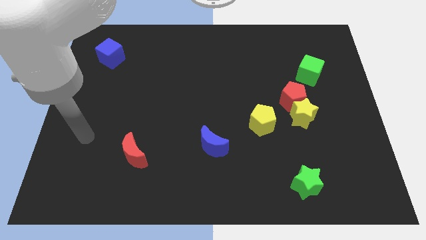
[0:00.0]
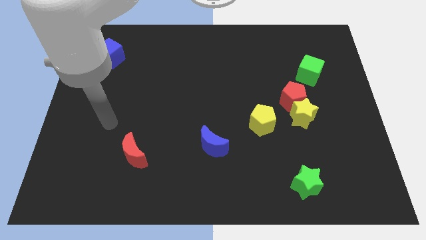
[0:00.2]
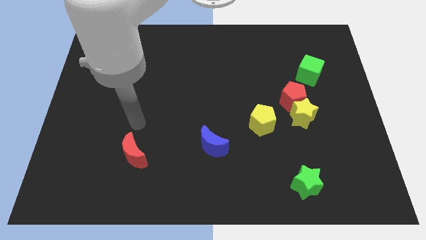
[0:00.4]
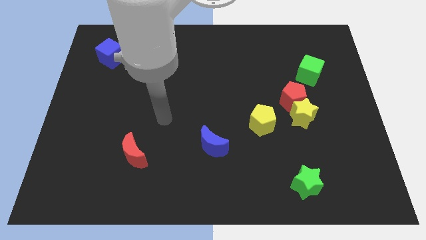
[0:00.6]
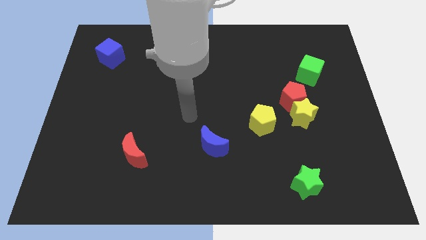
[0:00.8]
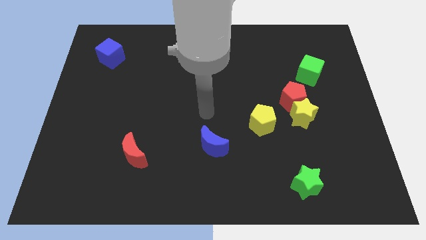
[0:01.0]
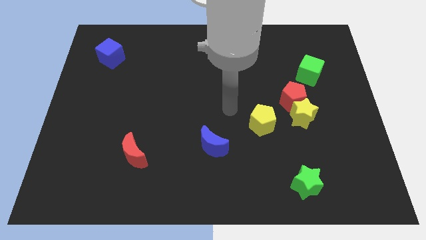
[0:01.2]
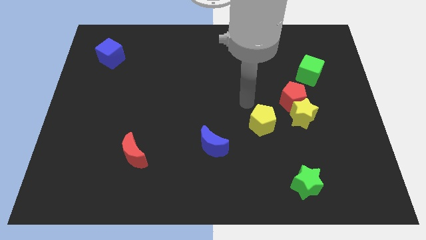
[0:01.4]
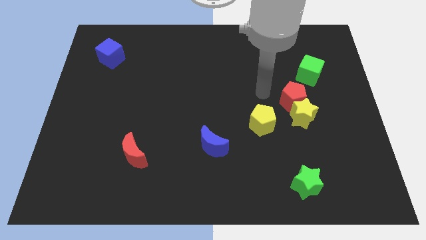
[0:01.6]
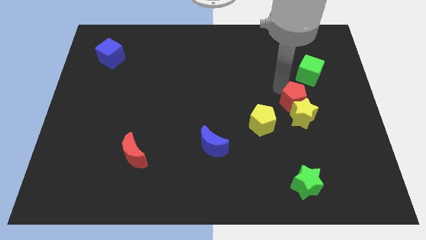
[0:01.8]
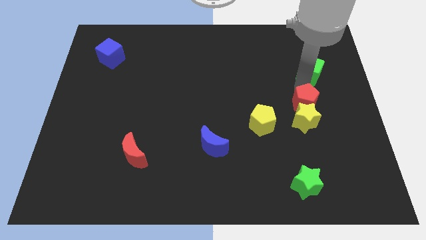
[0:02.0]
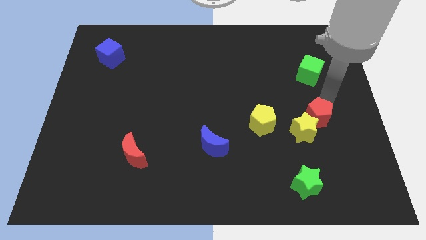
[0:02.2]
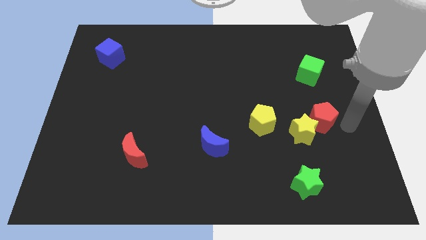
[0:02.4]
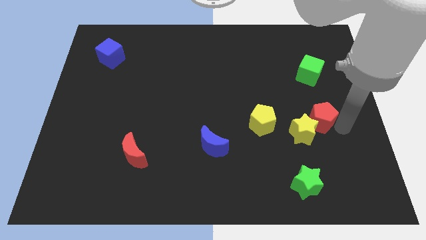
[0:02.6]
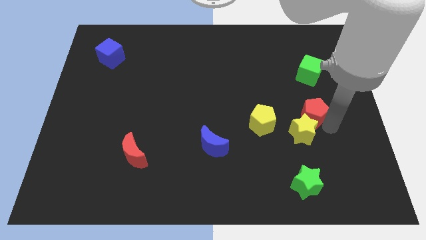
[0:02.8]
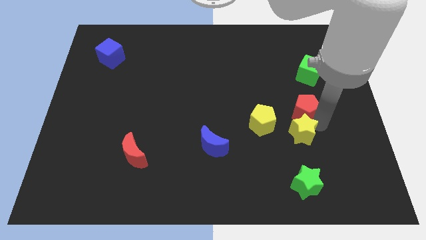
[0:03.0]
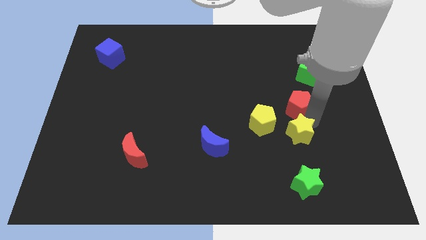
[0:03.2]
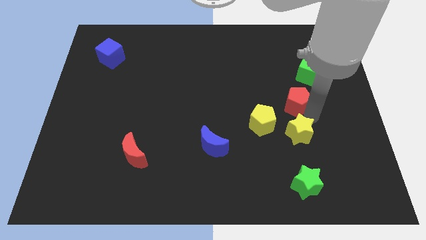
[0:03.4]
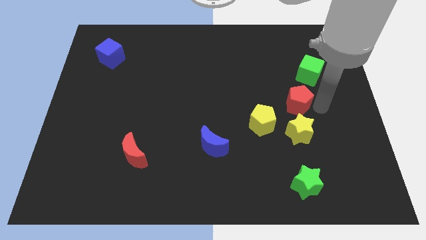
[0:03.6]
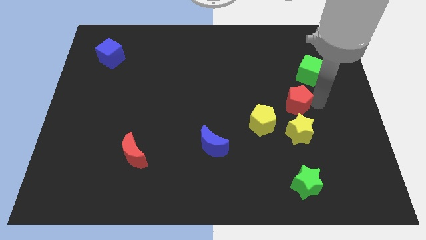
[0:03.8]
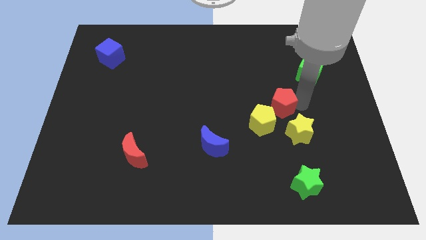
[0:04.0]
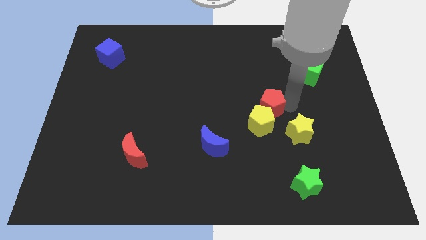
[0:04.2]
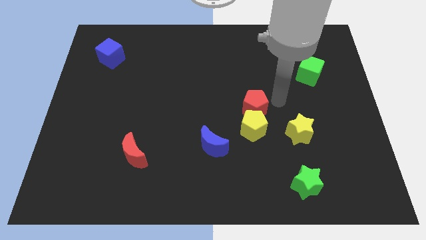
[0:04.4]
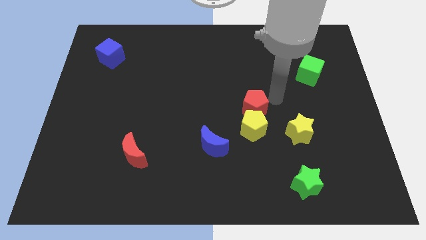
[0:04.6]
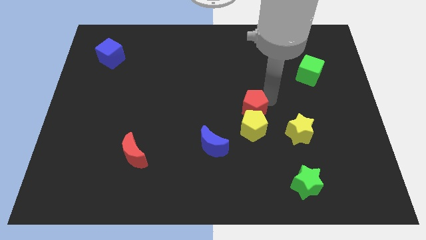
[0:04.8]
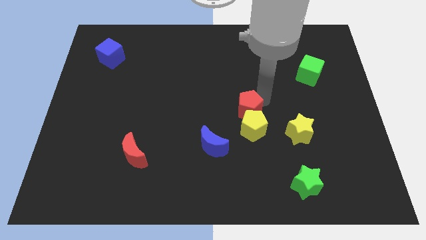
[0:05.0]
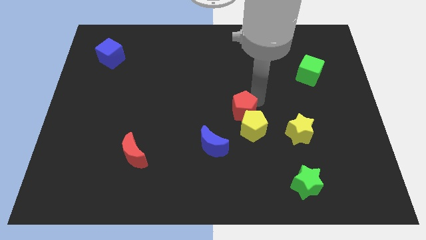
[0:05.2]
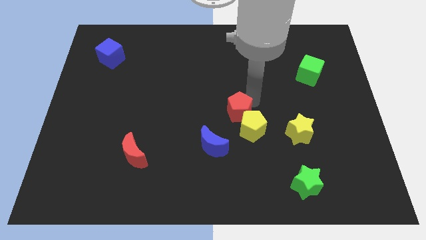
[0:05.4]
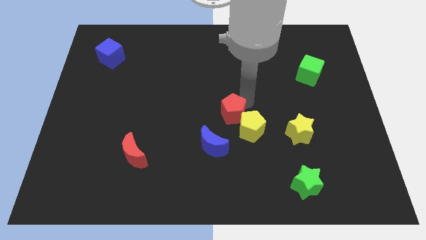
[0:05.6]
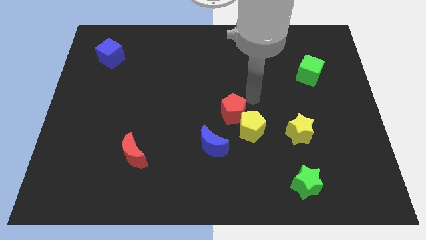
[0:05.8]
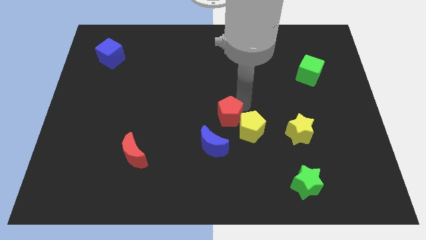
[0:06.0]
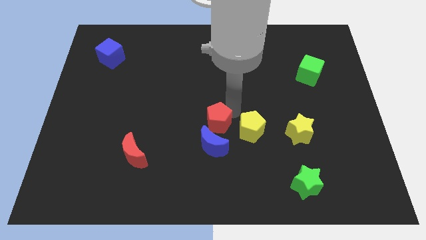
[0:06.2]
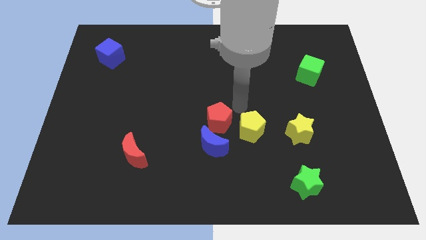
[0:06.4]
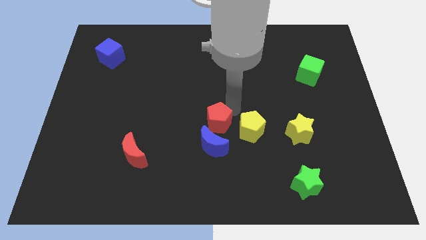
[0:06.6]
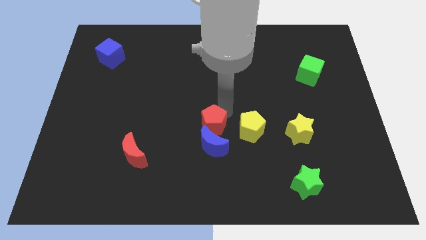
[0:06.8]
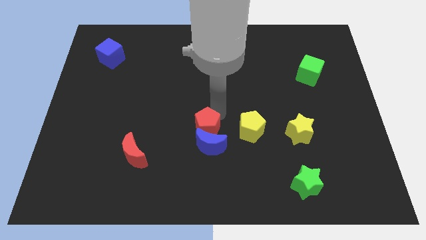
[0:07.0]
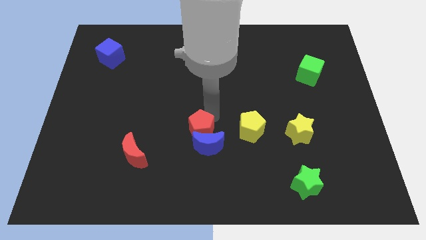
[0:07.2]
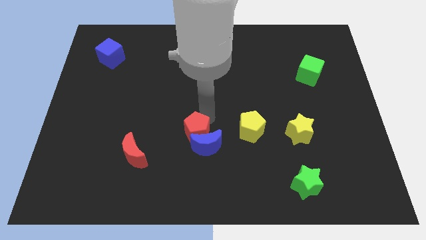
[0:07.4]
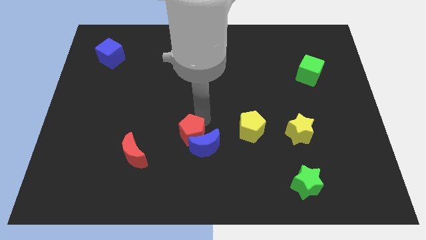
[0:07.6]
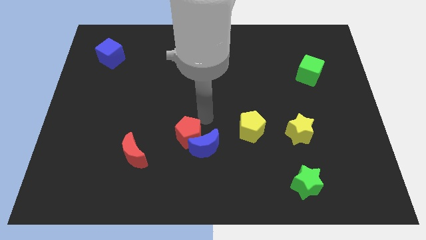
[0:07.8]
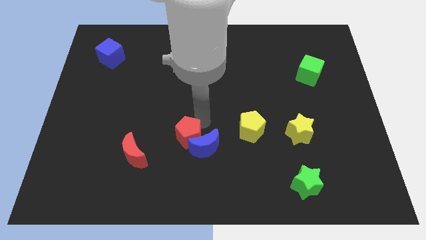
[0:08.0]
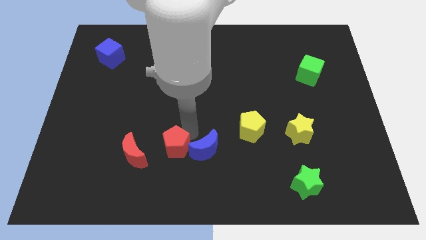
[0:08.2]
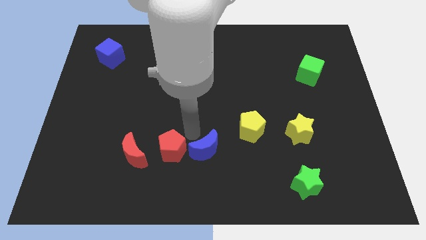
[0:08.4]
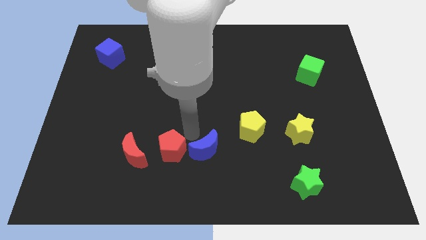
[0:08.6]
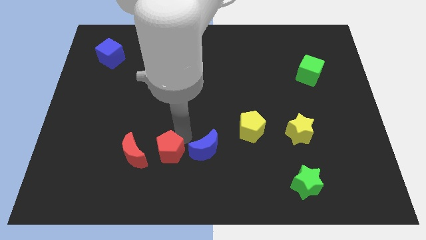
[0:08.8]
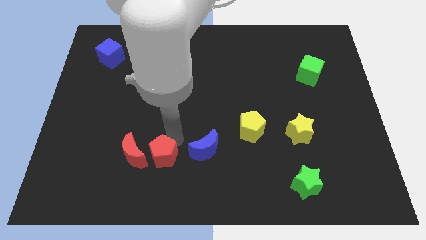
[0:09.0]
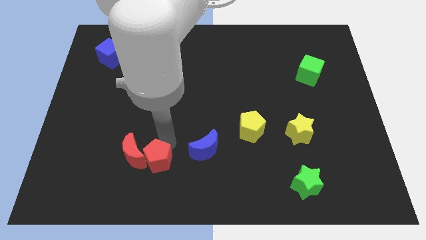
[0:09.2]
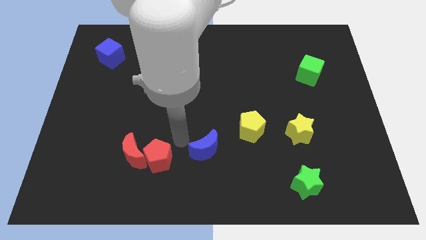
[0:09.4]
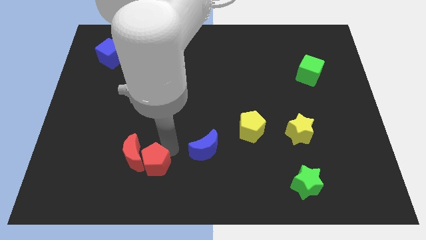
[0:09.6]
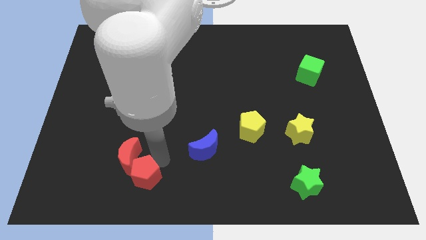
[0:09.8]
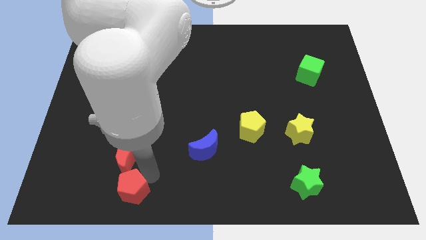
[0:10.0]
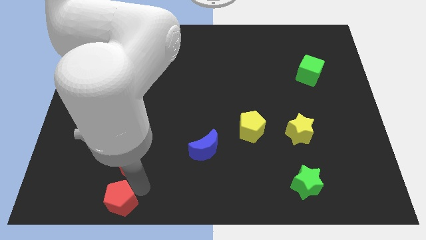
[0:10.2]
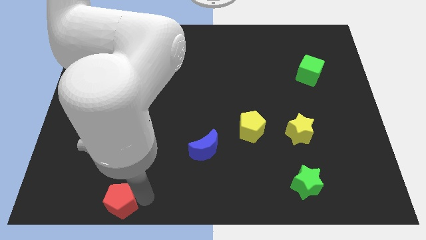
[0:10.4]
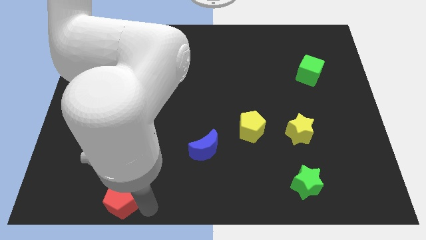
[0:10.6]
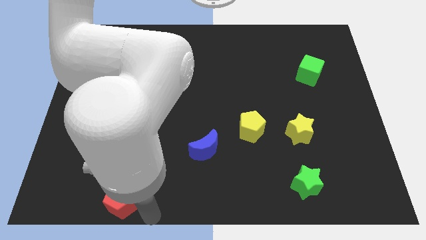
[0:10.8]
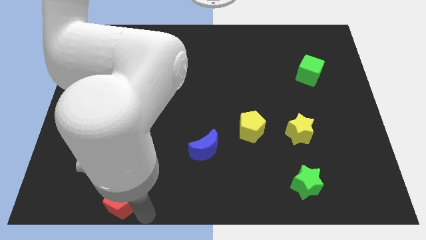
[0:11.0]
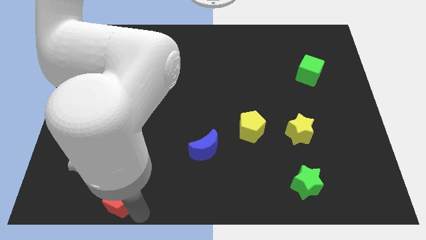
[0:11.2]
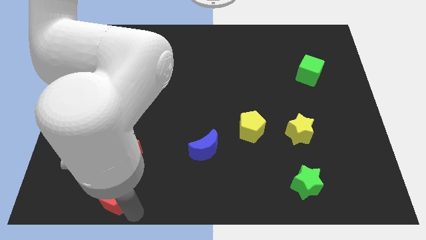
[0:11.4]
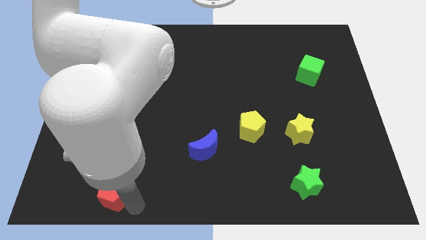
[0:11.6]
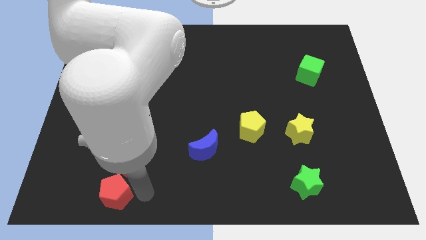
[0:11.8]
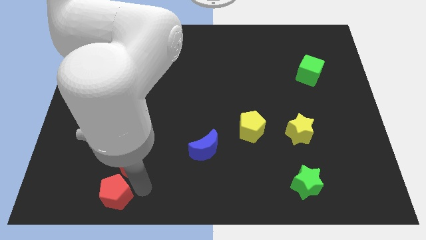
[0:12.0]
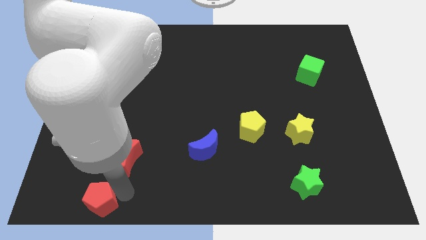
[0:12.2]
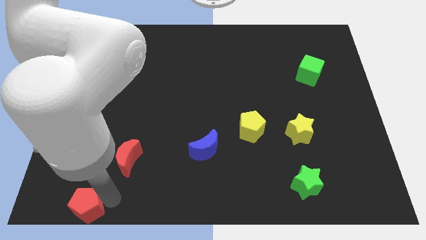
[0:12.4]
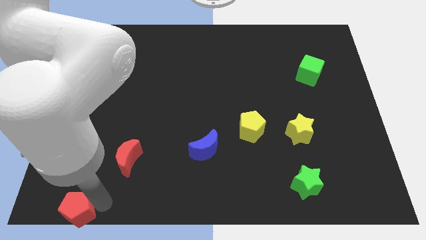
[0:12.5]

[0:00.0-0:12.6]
put the red pentagon to the bottom left of the board

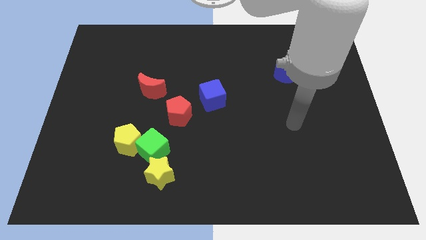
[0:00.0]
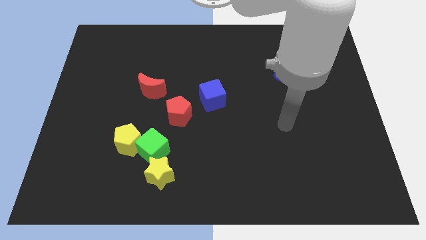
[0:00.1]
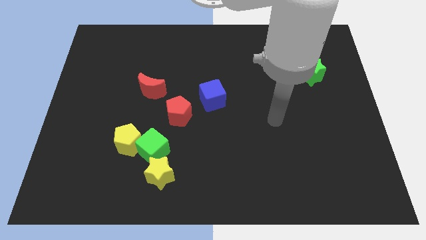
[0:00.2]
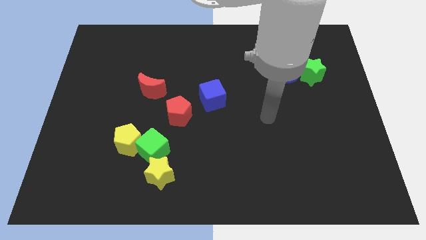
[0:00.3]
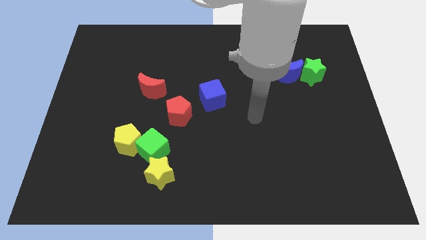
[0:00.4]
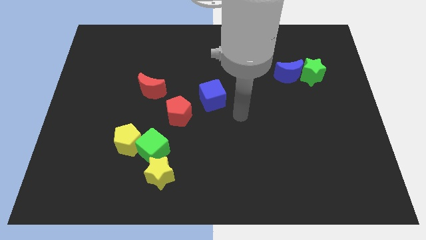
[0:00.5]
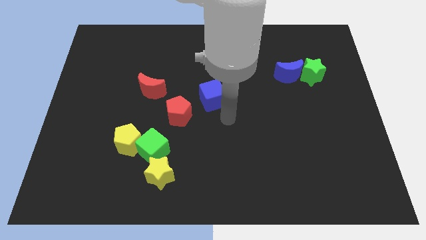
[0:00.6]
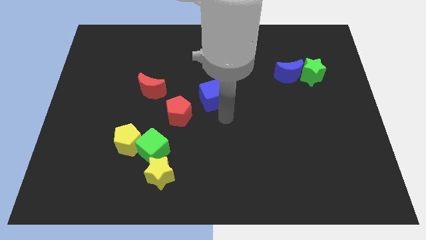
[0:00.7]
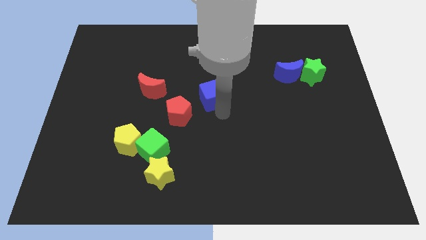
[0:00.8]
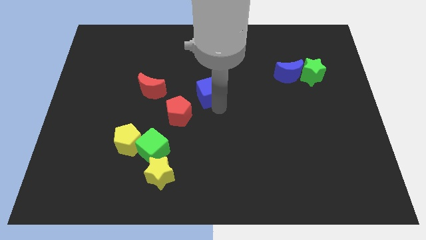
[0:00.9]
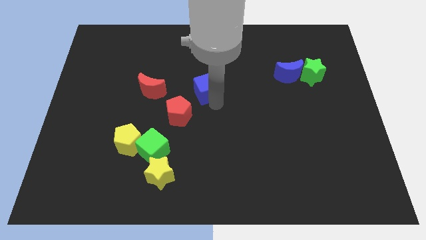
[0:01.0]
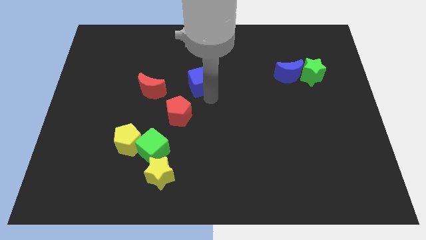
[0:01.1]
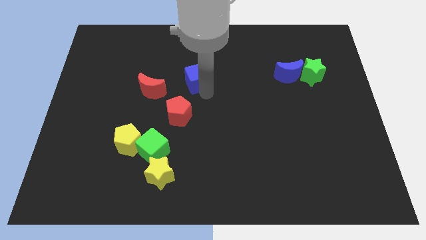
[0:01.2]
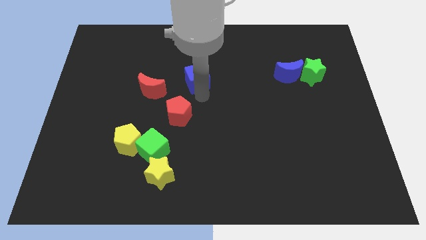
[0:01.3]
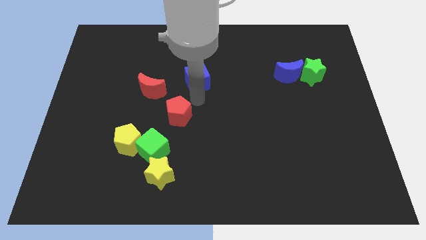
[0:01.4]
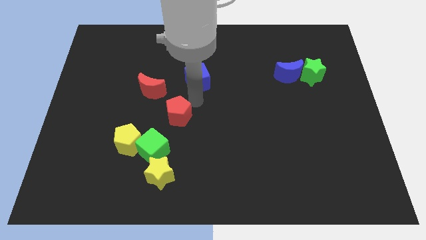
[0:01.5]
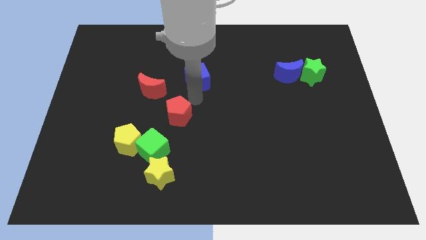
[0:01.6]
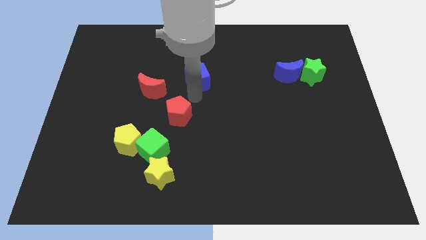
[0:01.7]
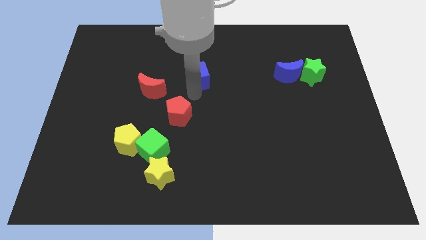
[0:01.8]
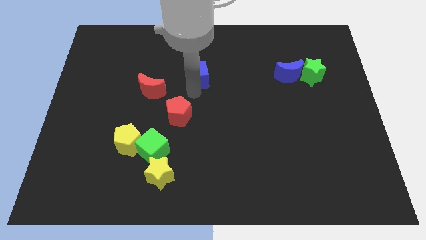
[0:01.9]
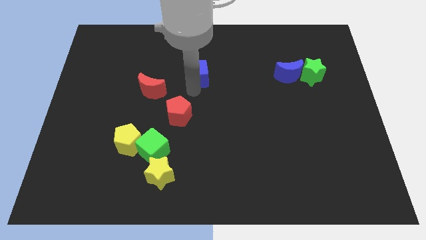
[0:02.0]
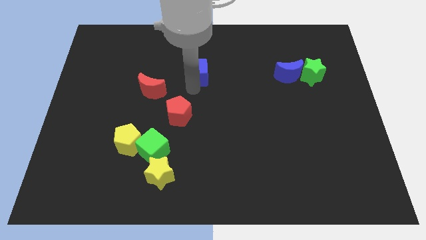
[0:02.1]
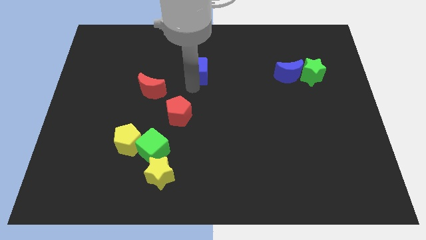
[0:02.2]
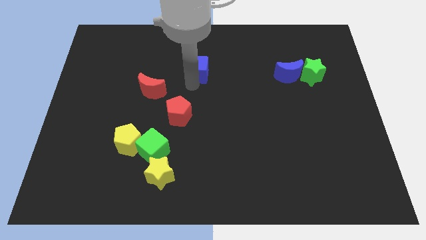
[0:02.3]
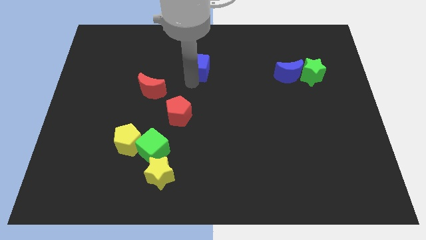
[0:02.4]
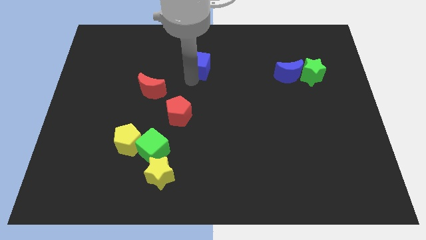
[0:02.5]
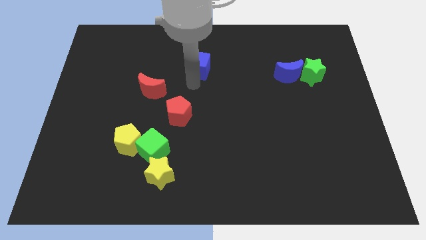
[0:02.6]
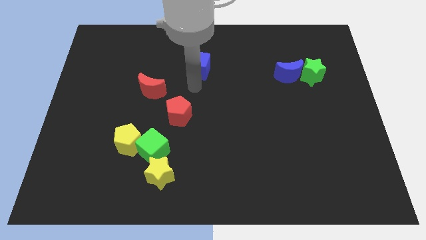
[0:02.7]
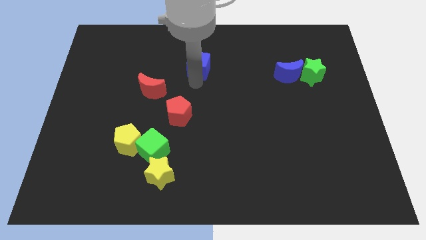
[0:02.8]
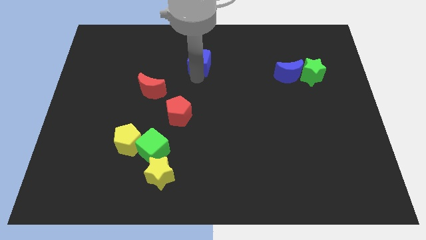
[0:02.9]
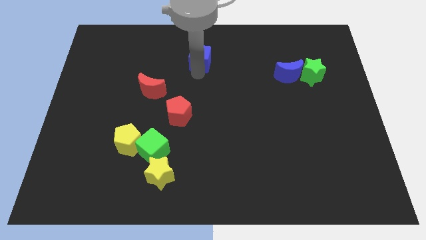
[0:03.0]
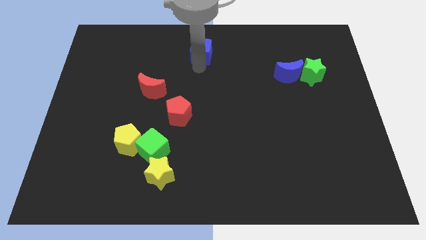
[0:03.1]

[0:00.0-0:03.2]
slide the blue cube to the towards your base
